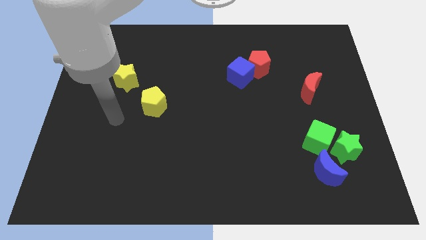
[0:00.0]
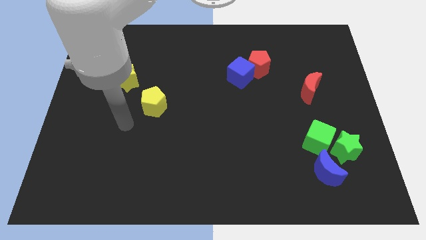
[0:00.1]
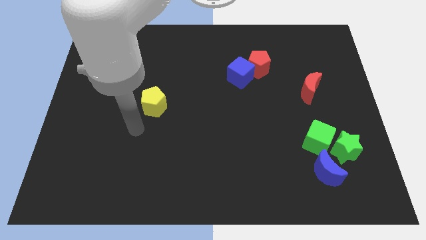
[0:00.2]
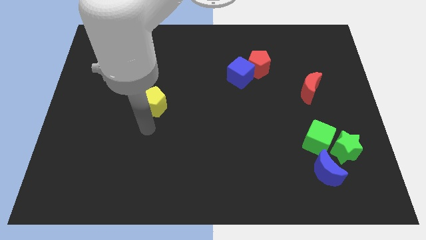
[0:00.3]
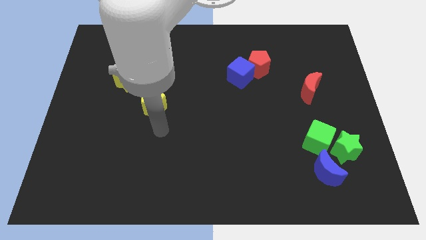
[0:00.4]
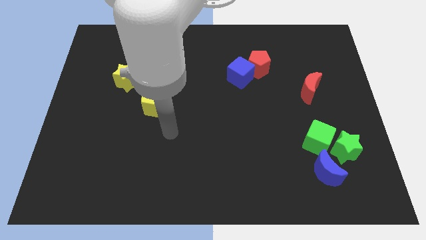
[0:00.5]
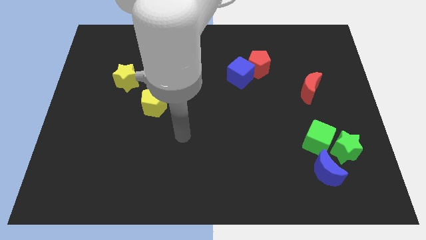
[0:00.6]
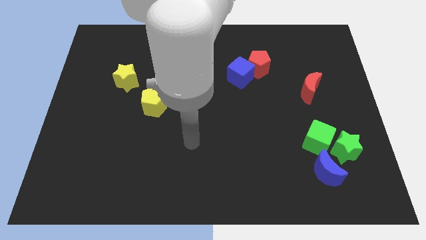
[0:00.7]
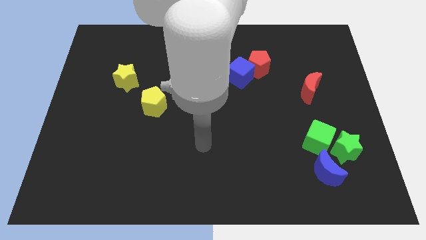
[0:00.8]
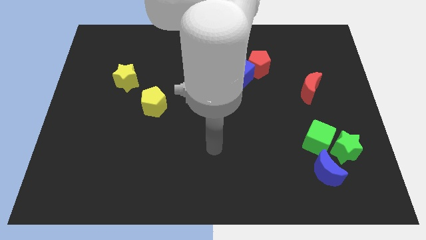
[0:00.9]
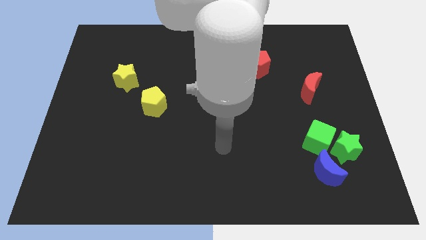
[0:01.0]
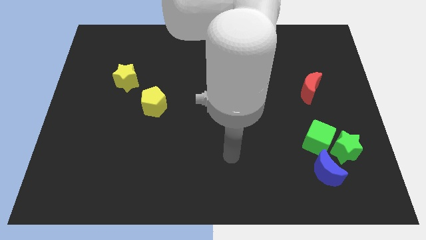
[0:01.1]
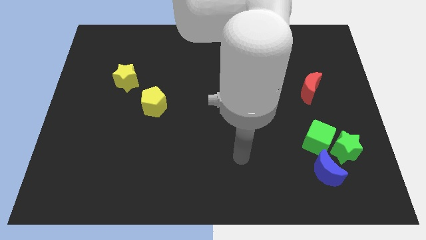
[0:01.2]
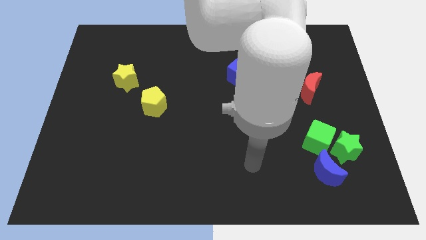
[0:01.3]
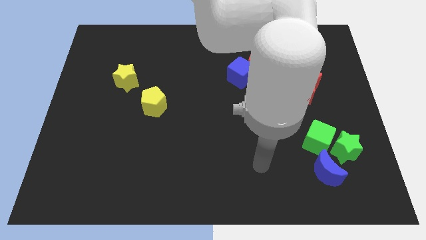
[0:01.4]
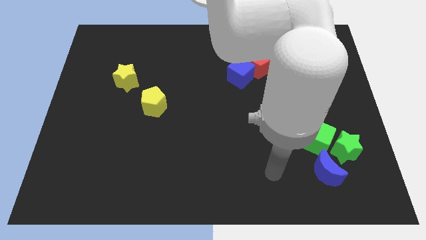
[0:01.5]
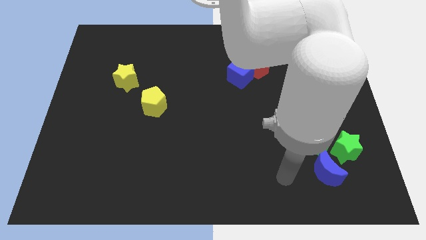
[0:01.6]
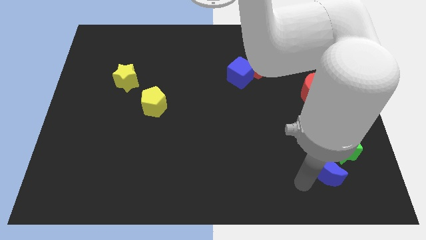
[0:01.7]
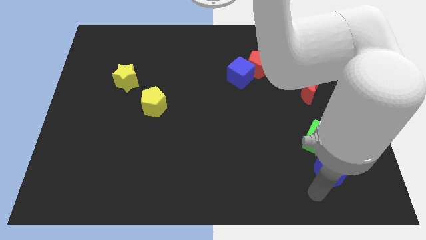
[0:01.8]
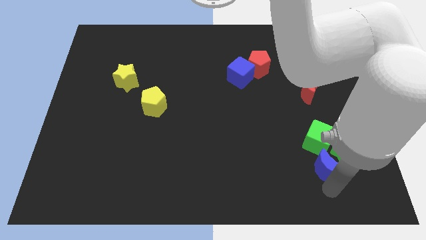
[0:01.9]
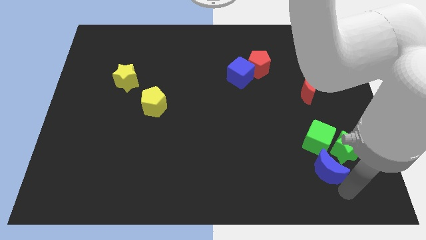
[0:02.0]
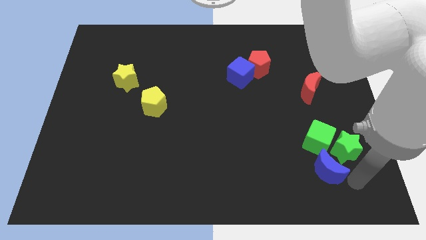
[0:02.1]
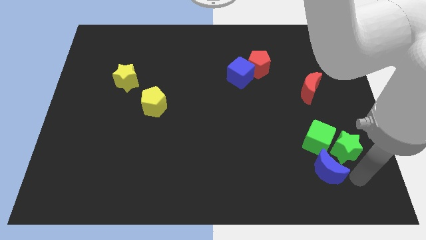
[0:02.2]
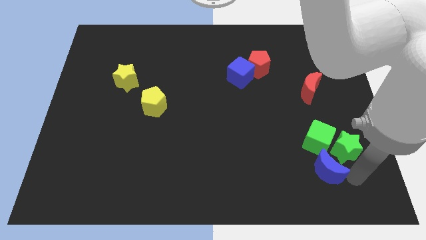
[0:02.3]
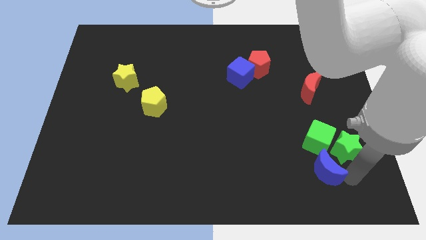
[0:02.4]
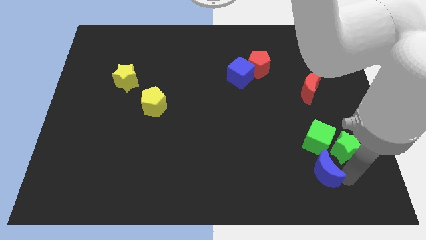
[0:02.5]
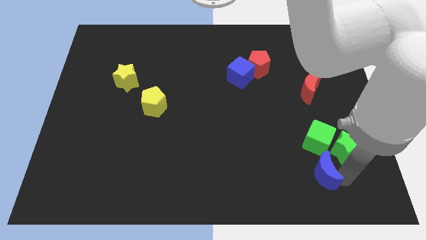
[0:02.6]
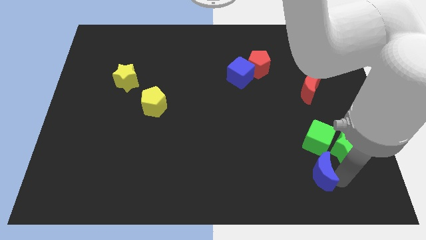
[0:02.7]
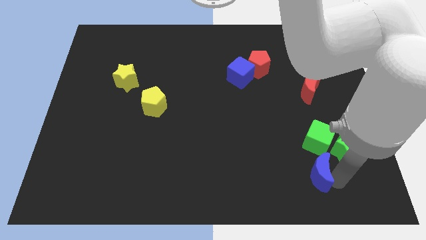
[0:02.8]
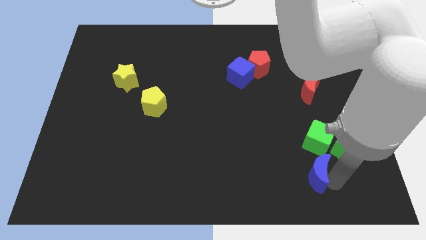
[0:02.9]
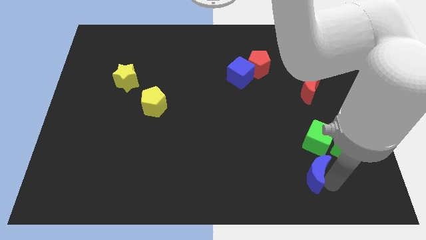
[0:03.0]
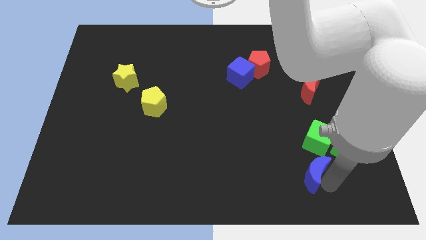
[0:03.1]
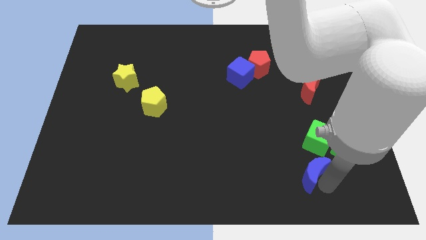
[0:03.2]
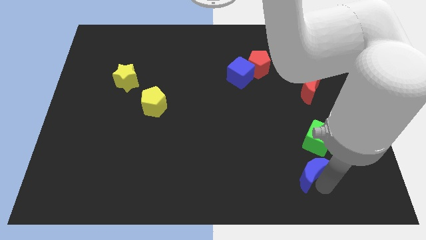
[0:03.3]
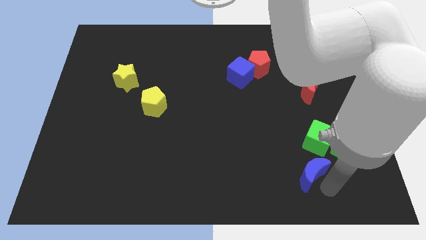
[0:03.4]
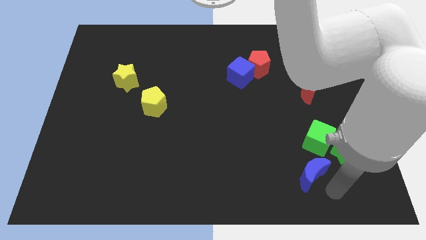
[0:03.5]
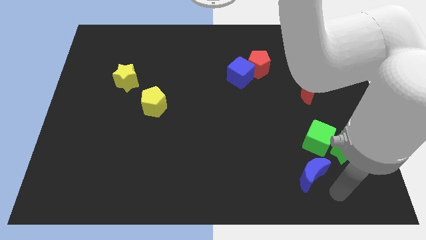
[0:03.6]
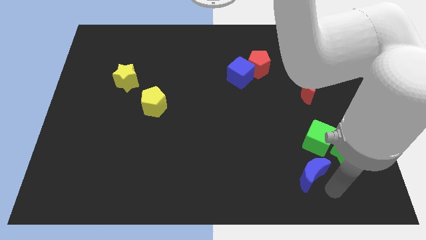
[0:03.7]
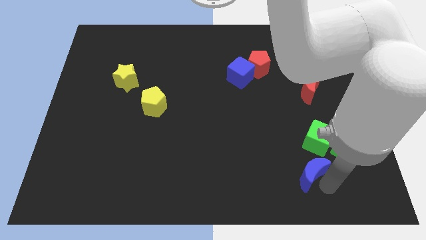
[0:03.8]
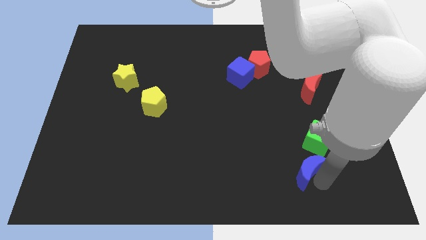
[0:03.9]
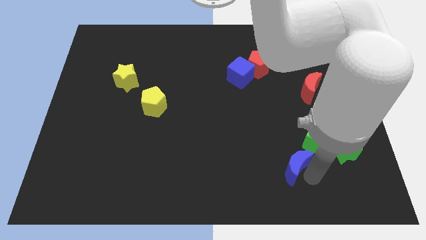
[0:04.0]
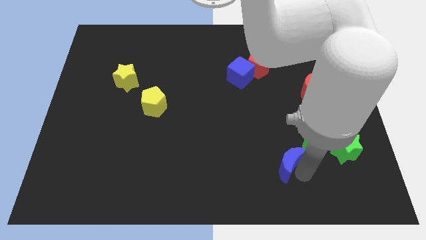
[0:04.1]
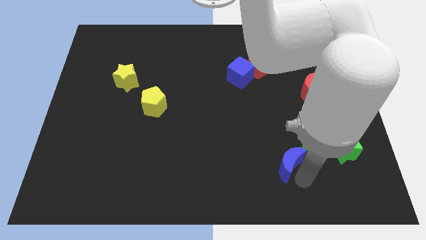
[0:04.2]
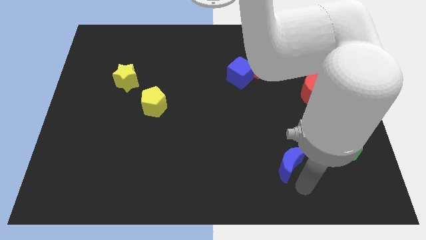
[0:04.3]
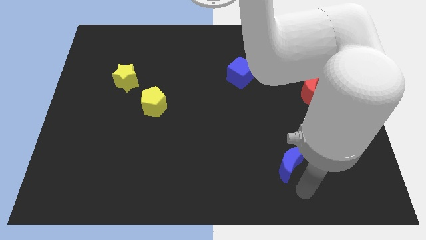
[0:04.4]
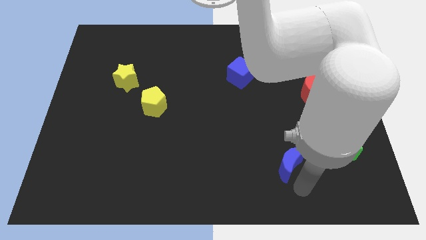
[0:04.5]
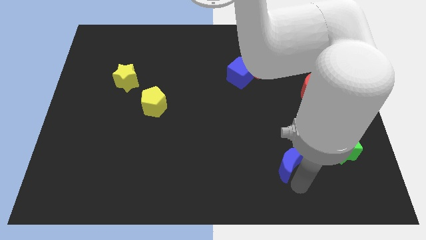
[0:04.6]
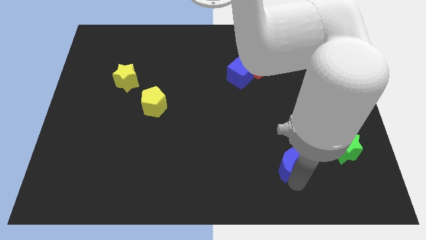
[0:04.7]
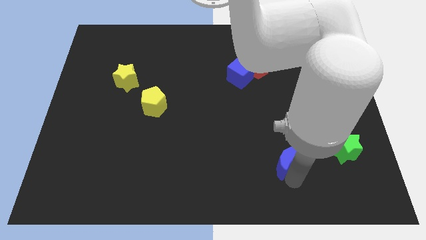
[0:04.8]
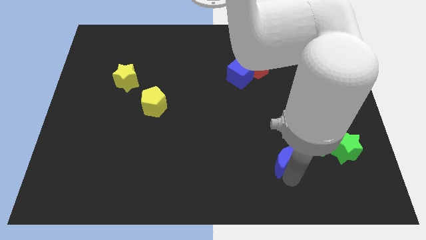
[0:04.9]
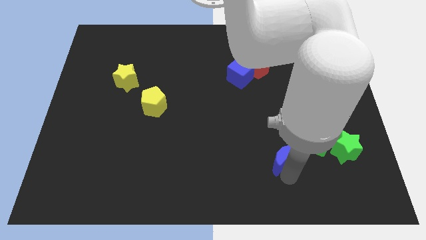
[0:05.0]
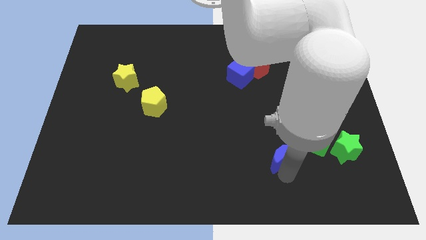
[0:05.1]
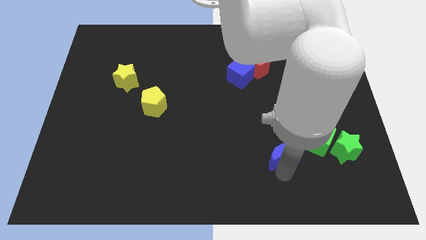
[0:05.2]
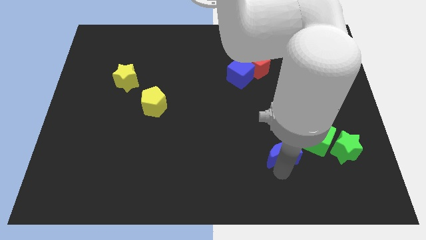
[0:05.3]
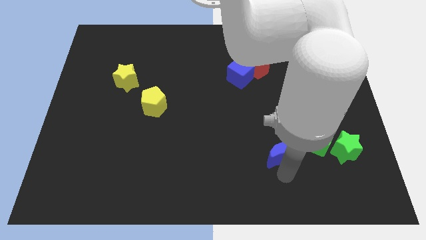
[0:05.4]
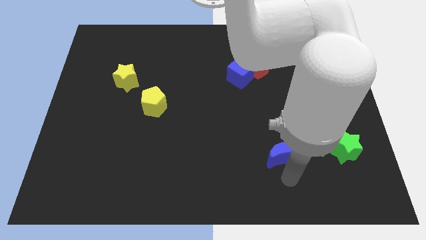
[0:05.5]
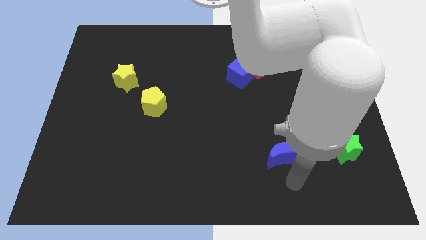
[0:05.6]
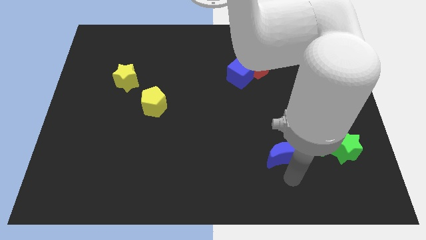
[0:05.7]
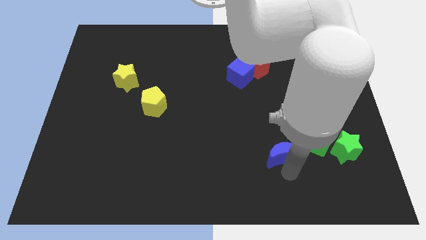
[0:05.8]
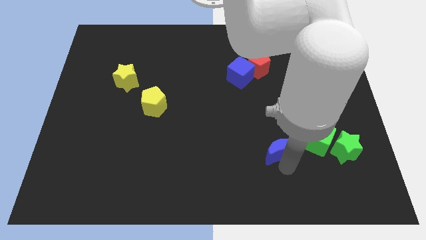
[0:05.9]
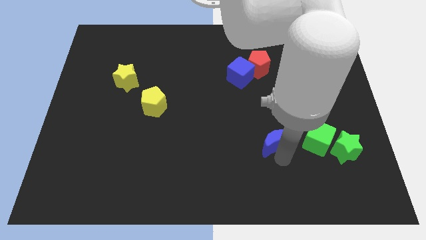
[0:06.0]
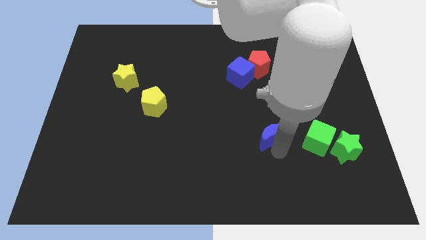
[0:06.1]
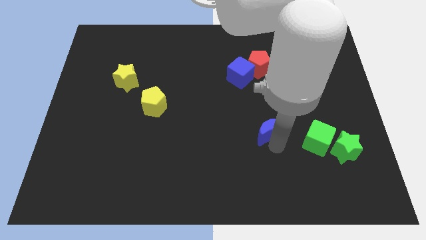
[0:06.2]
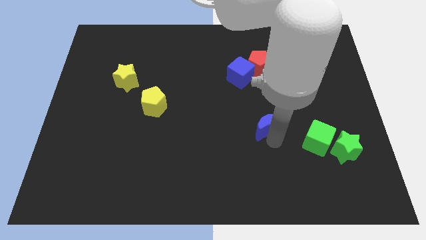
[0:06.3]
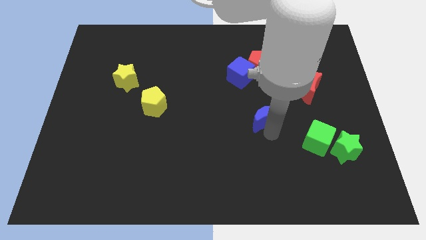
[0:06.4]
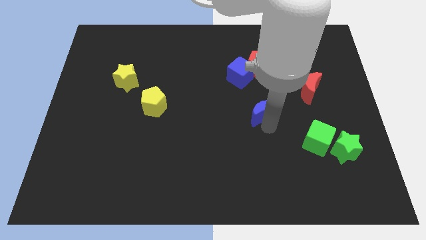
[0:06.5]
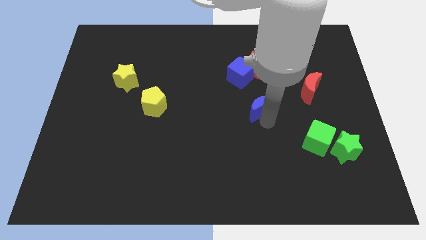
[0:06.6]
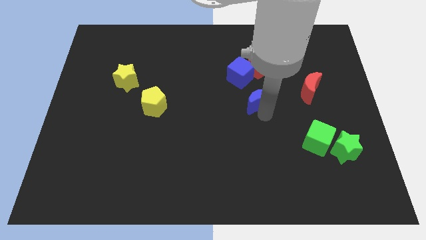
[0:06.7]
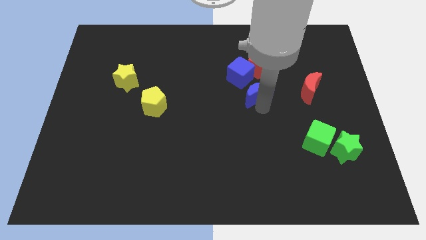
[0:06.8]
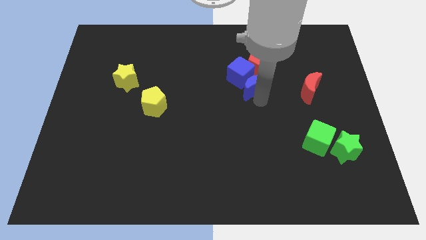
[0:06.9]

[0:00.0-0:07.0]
slide the blue moon close to the blue cube
